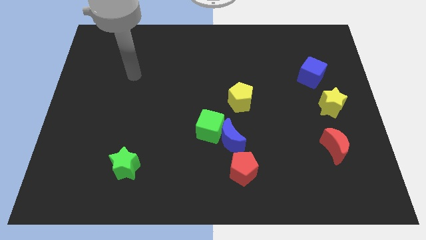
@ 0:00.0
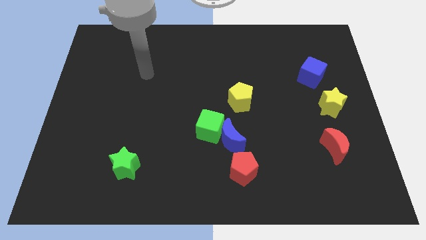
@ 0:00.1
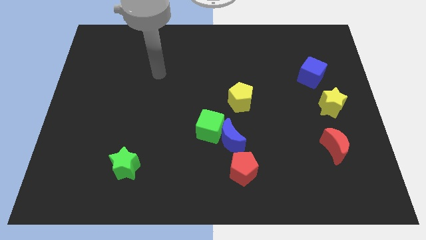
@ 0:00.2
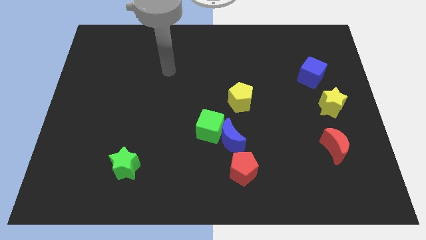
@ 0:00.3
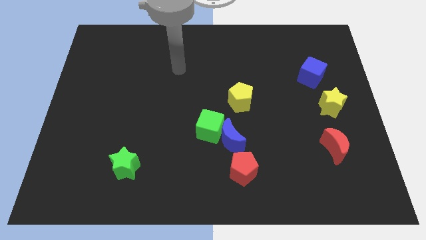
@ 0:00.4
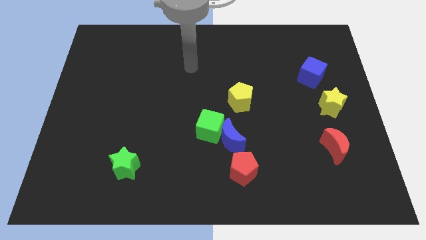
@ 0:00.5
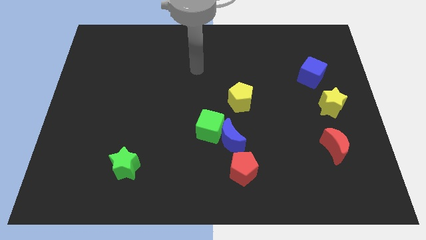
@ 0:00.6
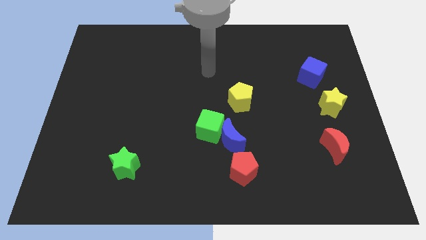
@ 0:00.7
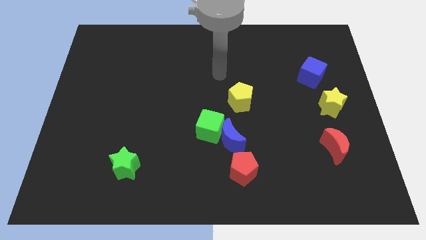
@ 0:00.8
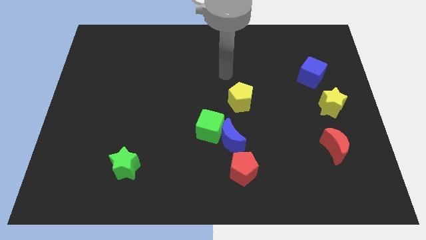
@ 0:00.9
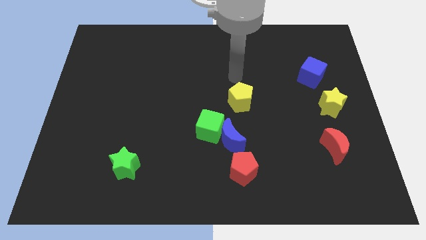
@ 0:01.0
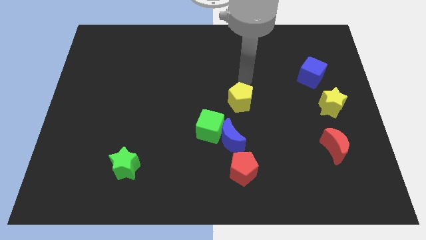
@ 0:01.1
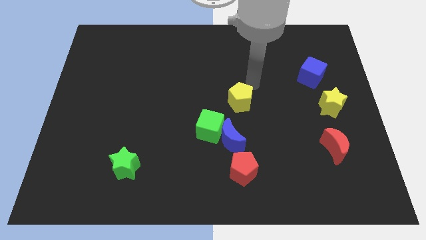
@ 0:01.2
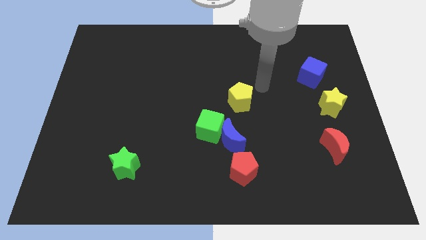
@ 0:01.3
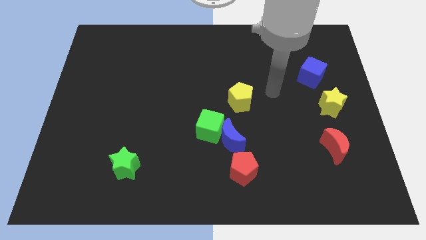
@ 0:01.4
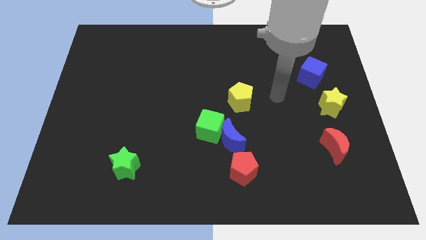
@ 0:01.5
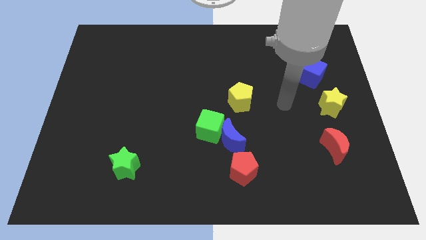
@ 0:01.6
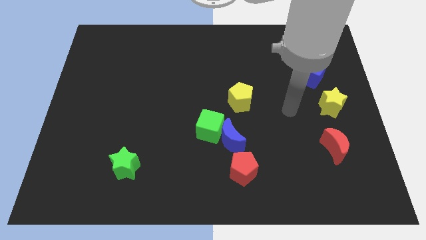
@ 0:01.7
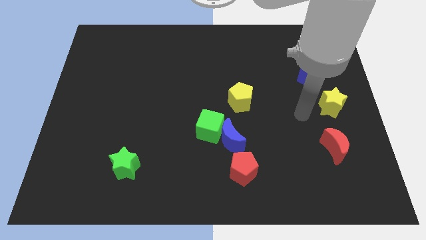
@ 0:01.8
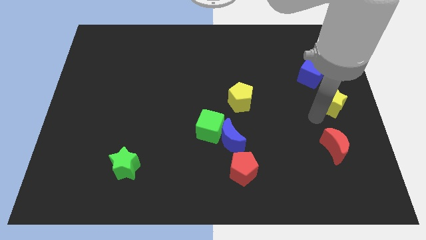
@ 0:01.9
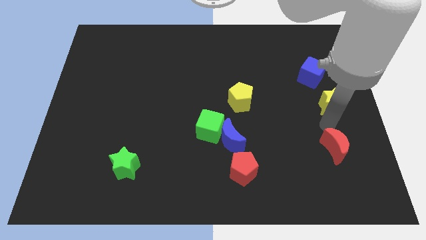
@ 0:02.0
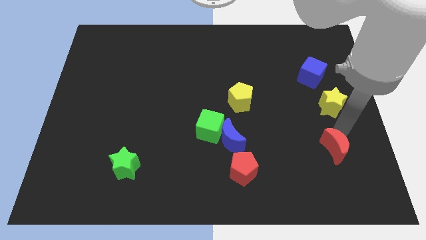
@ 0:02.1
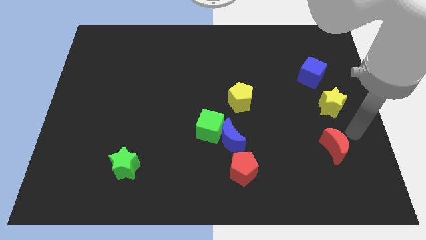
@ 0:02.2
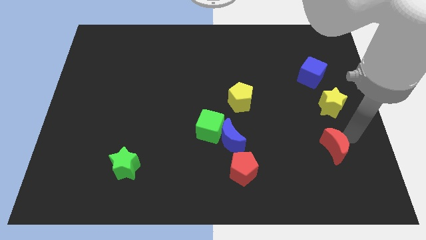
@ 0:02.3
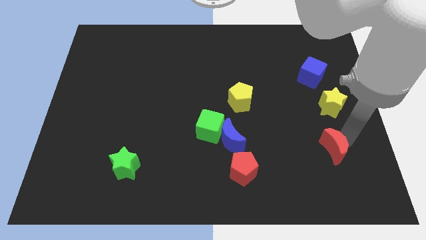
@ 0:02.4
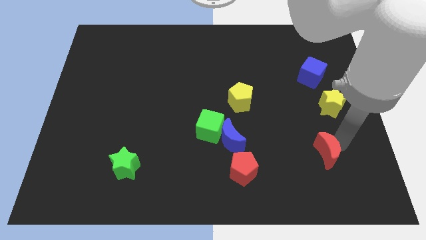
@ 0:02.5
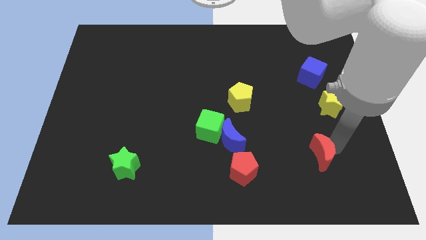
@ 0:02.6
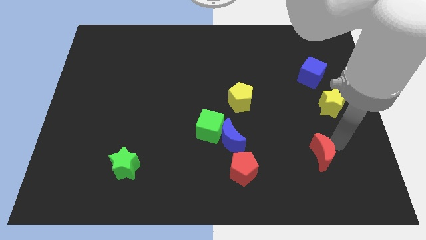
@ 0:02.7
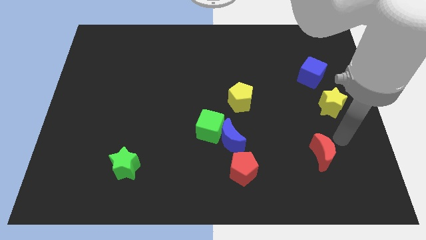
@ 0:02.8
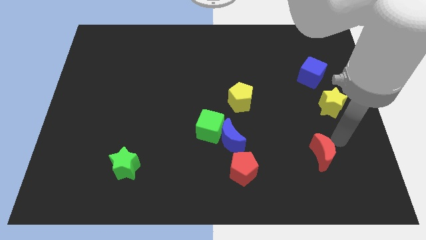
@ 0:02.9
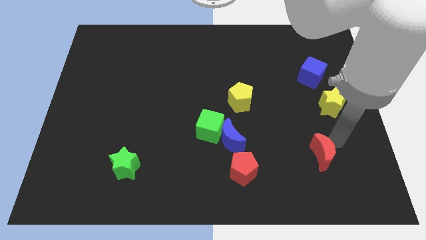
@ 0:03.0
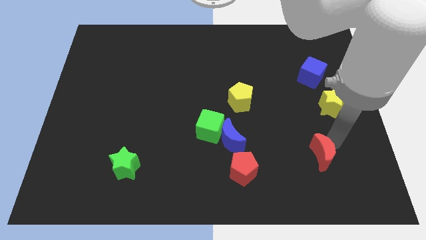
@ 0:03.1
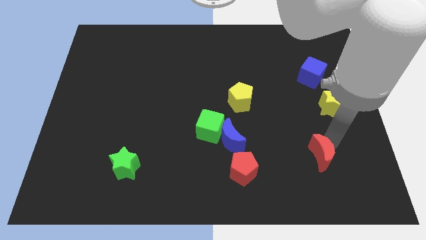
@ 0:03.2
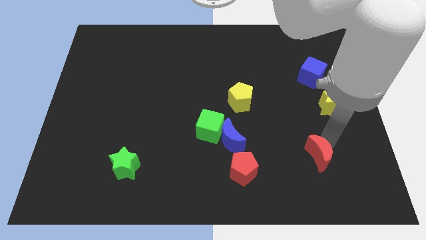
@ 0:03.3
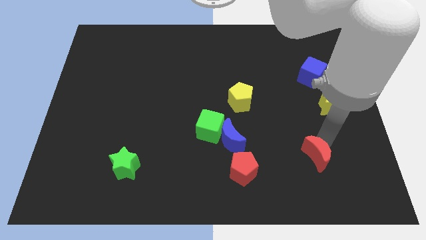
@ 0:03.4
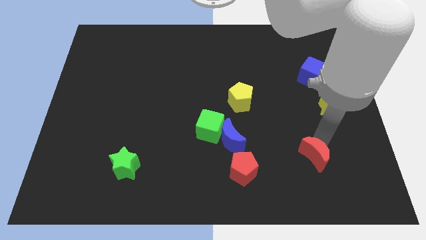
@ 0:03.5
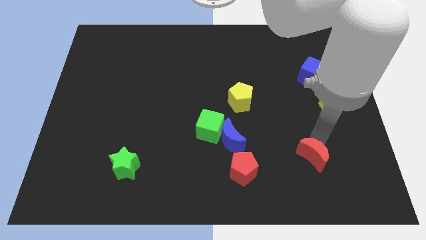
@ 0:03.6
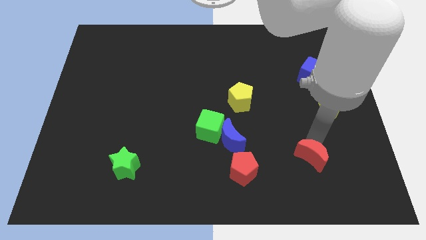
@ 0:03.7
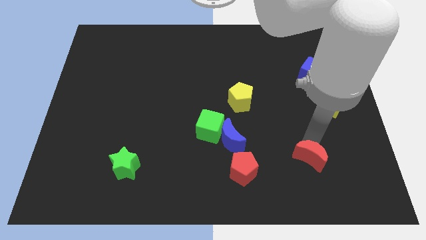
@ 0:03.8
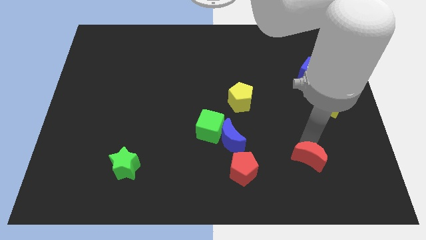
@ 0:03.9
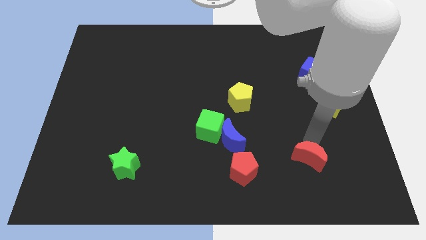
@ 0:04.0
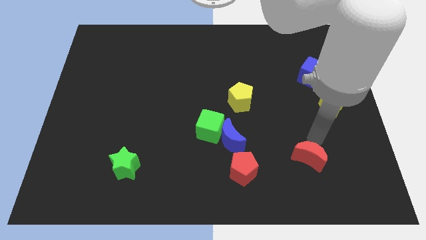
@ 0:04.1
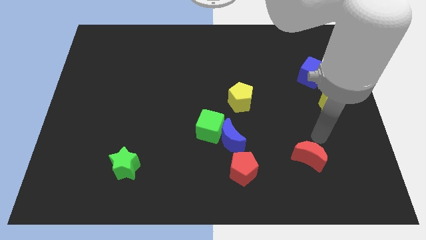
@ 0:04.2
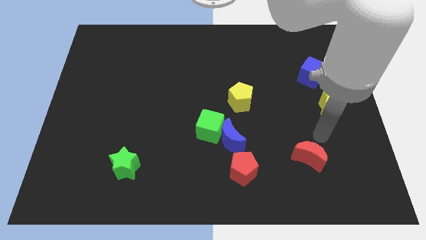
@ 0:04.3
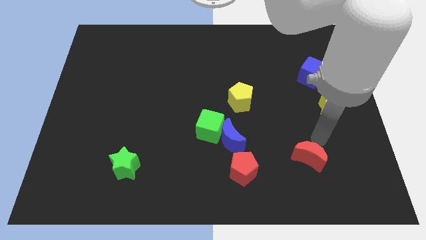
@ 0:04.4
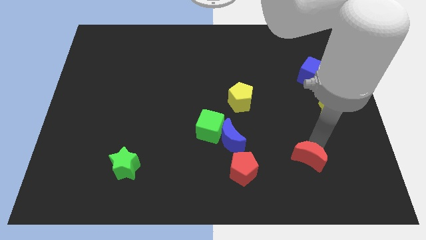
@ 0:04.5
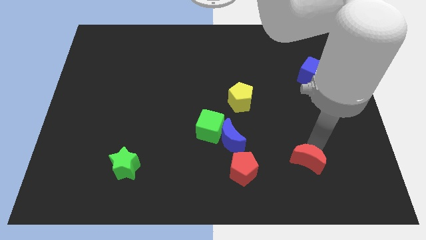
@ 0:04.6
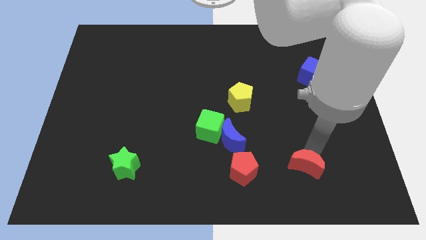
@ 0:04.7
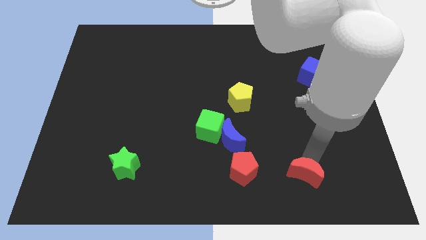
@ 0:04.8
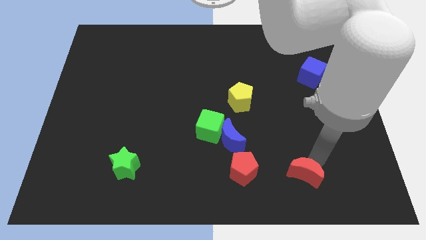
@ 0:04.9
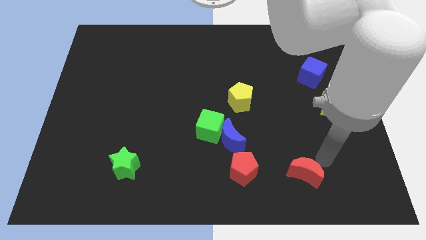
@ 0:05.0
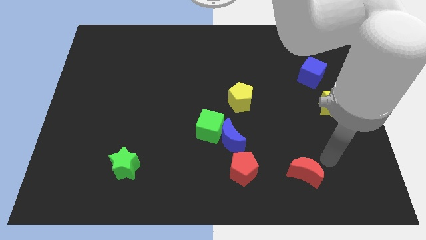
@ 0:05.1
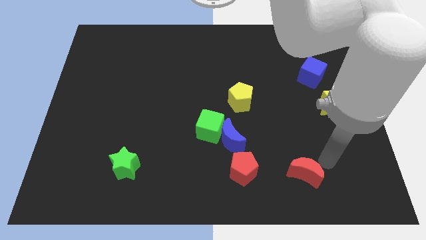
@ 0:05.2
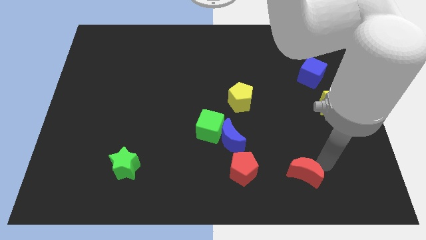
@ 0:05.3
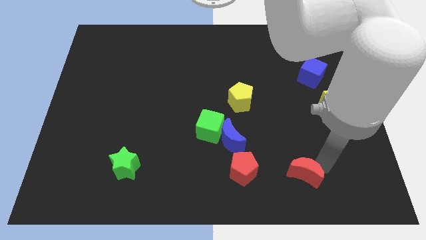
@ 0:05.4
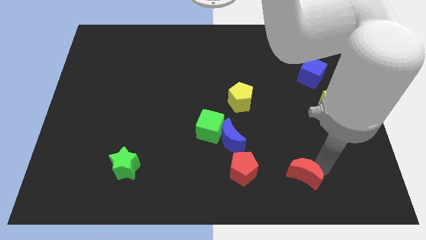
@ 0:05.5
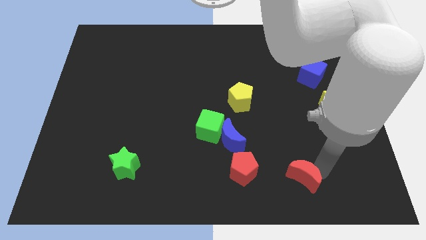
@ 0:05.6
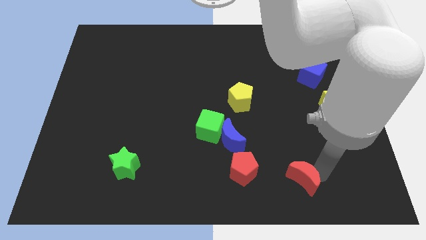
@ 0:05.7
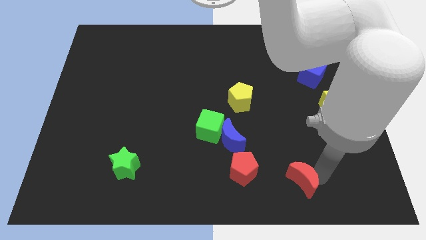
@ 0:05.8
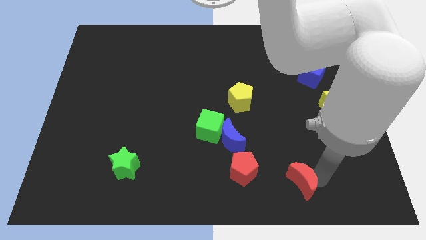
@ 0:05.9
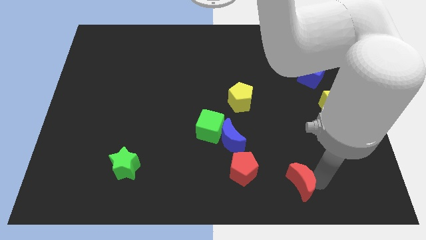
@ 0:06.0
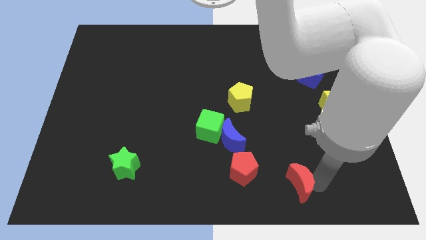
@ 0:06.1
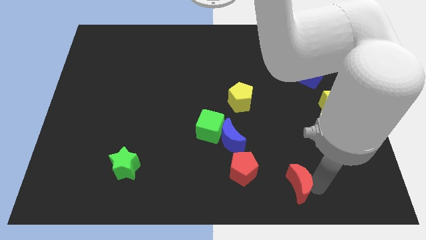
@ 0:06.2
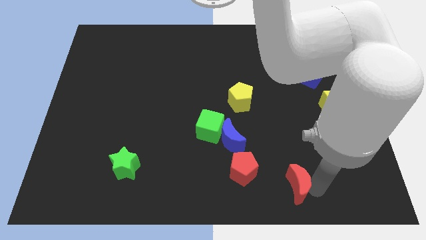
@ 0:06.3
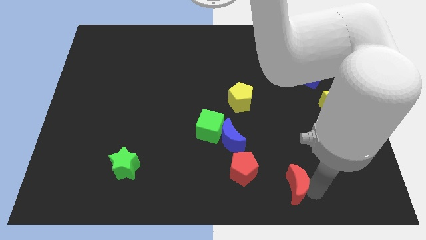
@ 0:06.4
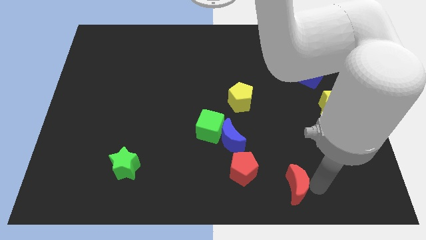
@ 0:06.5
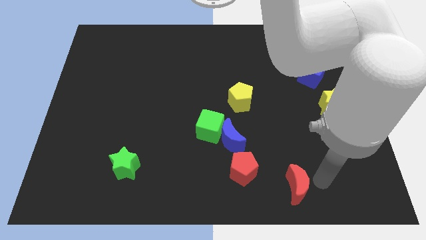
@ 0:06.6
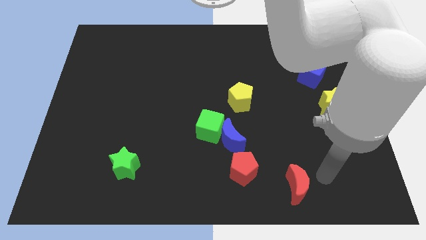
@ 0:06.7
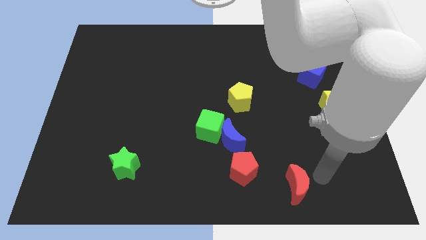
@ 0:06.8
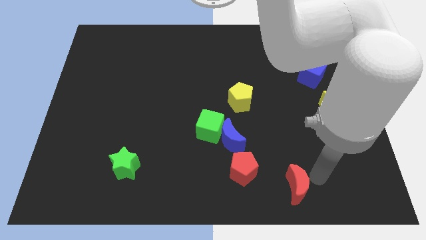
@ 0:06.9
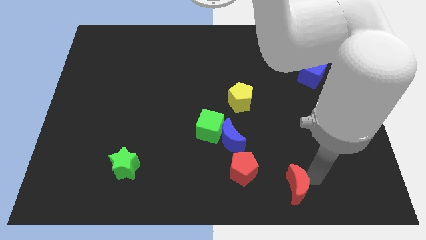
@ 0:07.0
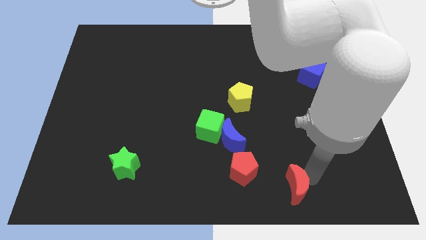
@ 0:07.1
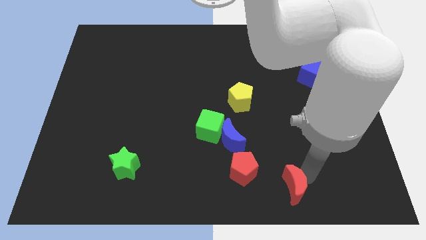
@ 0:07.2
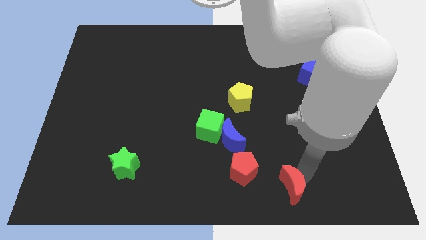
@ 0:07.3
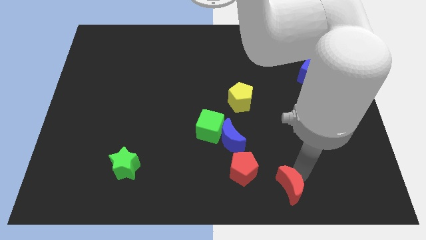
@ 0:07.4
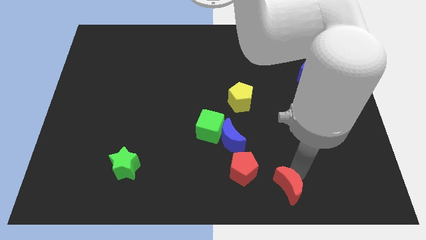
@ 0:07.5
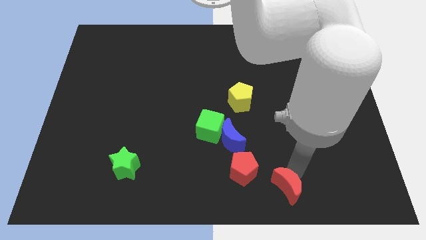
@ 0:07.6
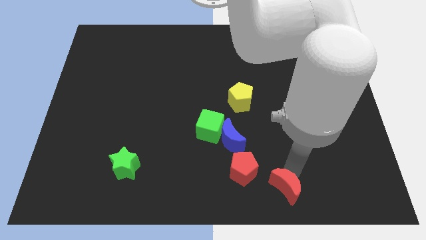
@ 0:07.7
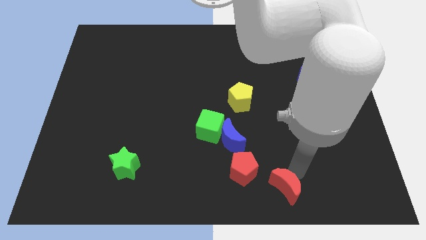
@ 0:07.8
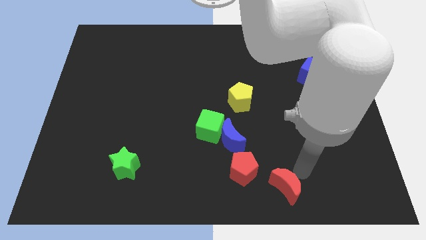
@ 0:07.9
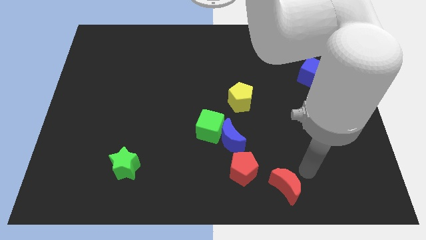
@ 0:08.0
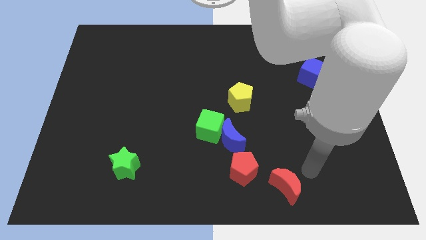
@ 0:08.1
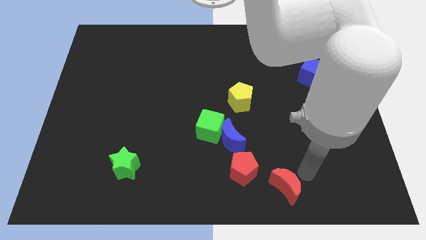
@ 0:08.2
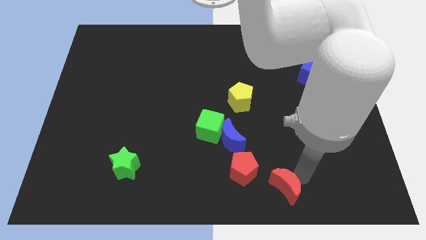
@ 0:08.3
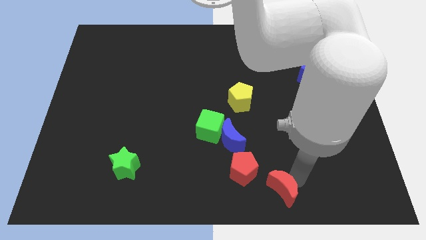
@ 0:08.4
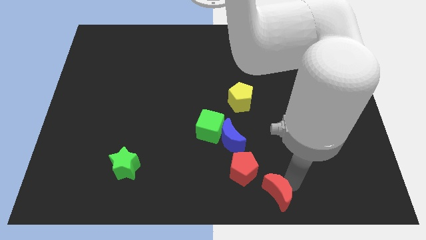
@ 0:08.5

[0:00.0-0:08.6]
put the red moon to the bottom side
